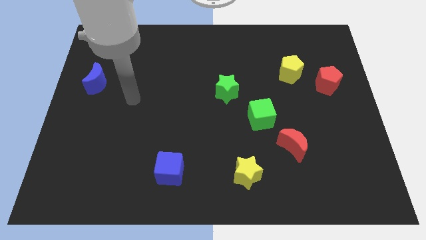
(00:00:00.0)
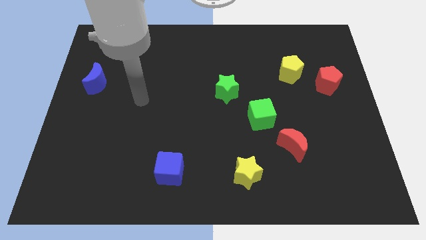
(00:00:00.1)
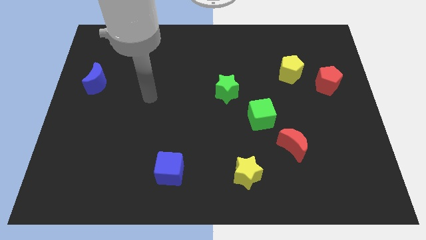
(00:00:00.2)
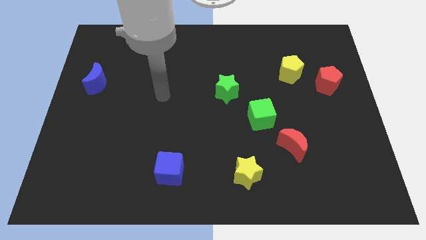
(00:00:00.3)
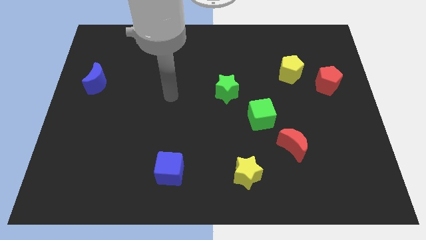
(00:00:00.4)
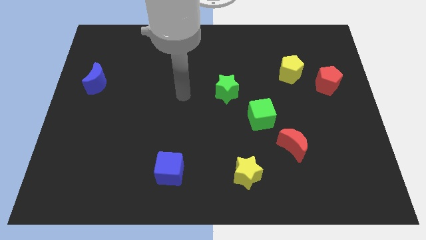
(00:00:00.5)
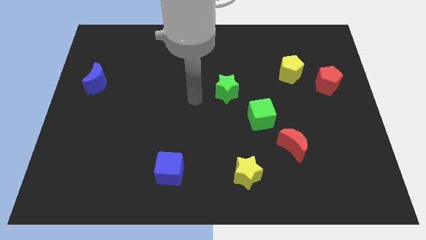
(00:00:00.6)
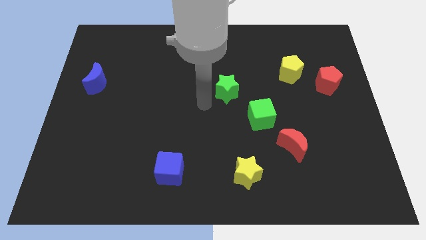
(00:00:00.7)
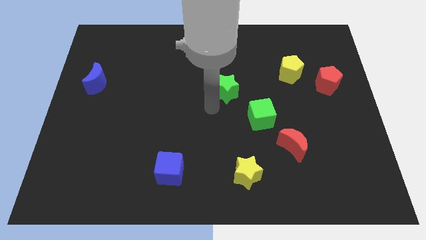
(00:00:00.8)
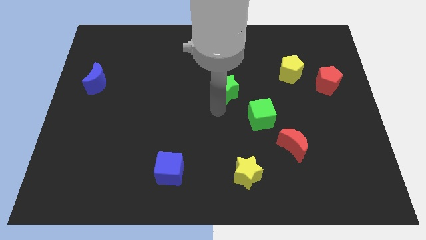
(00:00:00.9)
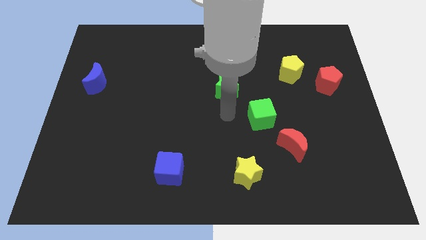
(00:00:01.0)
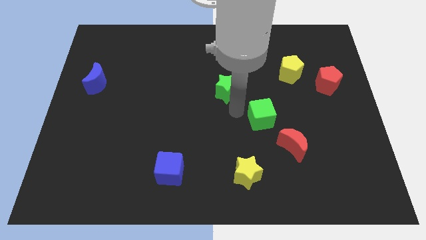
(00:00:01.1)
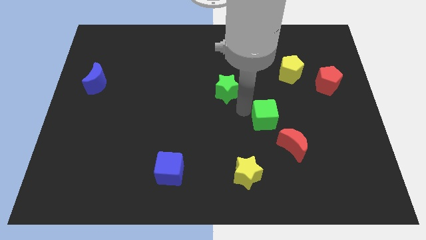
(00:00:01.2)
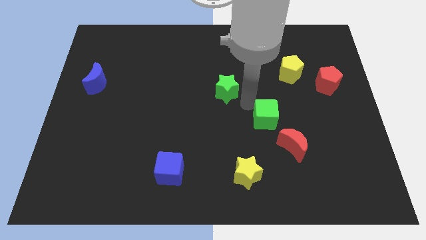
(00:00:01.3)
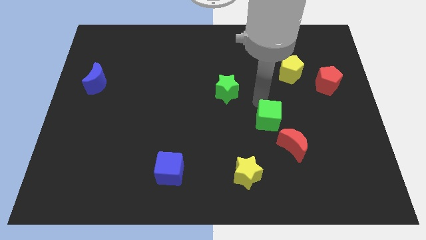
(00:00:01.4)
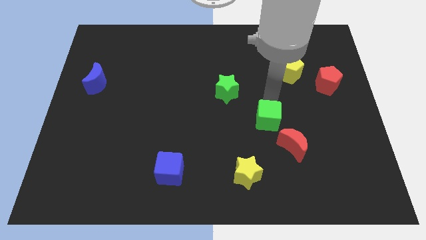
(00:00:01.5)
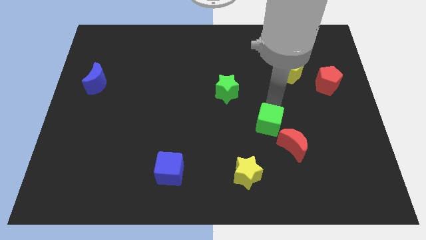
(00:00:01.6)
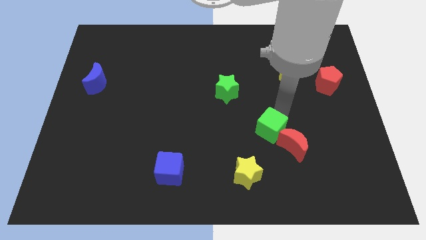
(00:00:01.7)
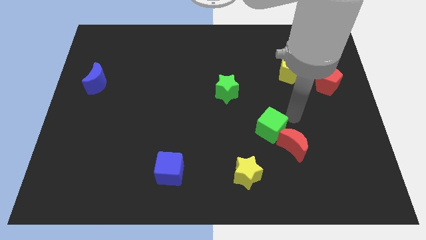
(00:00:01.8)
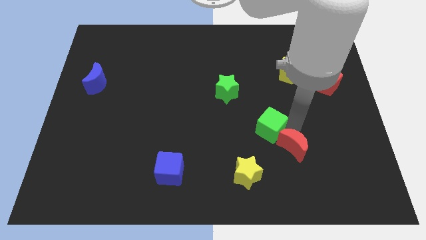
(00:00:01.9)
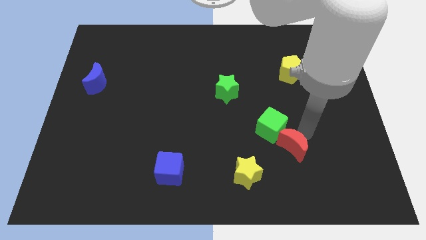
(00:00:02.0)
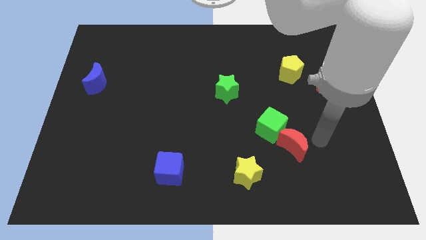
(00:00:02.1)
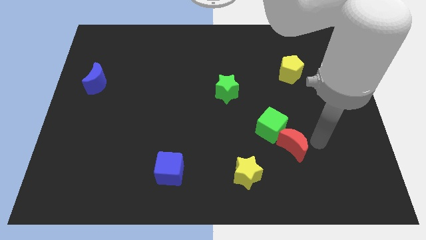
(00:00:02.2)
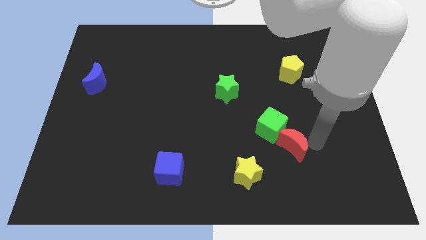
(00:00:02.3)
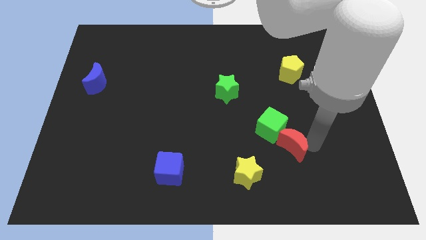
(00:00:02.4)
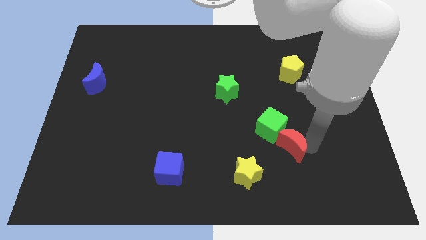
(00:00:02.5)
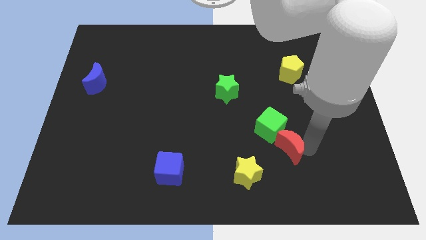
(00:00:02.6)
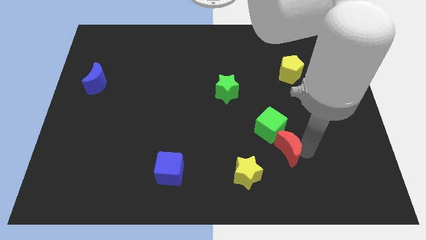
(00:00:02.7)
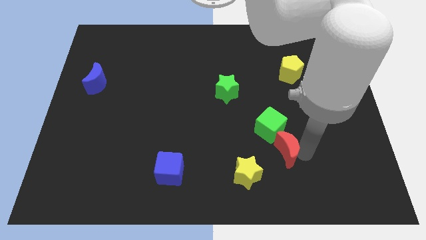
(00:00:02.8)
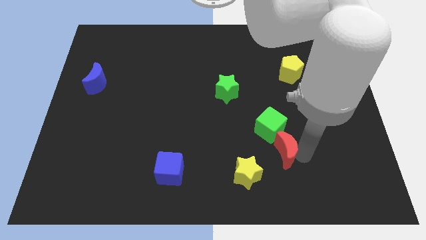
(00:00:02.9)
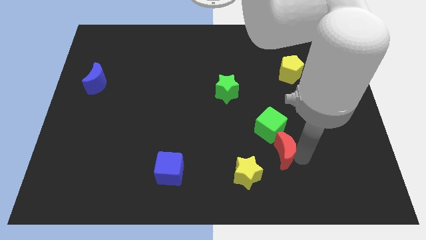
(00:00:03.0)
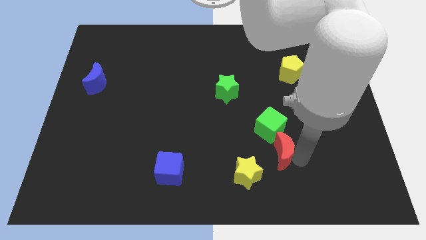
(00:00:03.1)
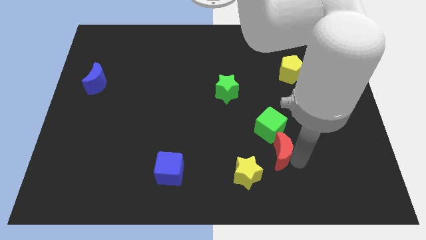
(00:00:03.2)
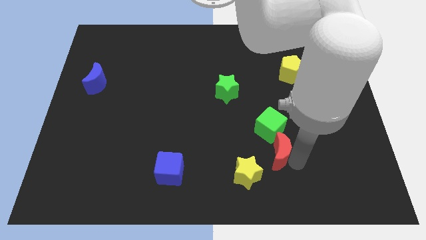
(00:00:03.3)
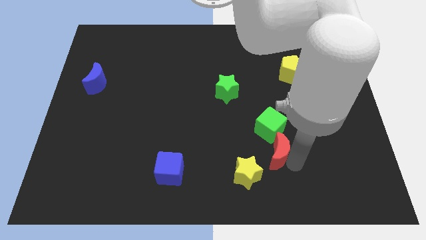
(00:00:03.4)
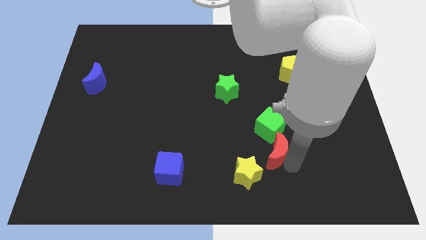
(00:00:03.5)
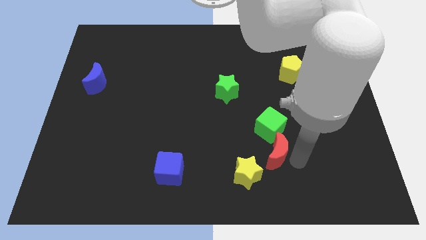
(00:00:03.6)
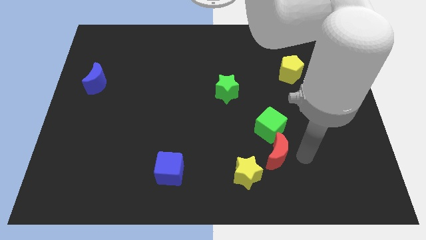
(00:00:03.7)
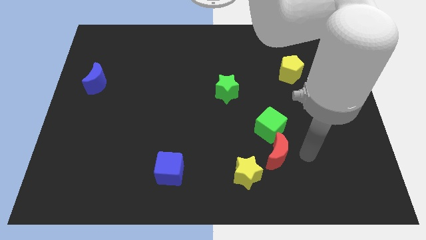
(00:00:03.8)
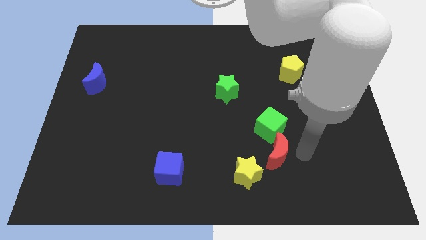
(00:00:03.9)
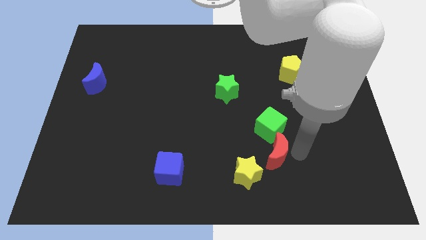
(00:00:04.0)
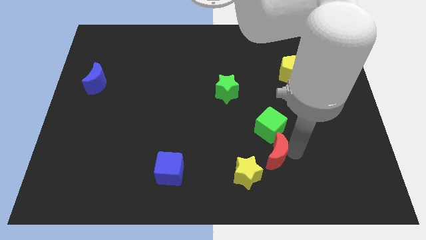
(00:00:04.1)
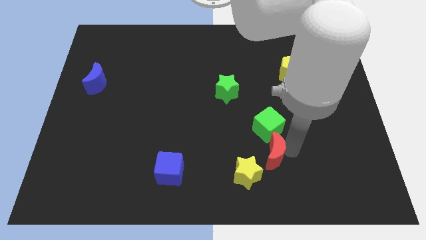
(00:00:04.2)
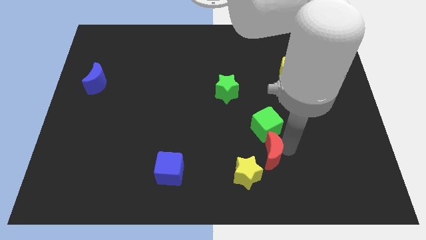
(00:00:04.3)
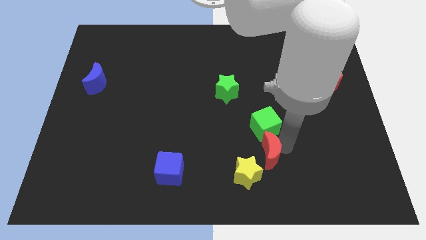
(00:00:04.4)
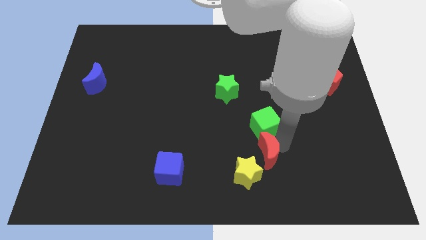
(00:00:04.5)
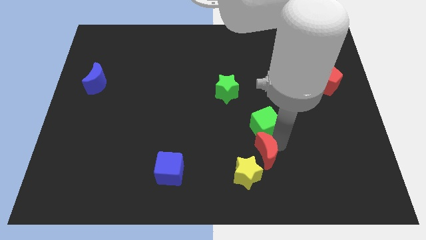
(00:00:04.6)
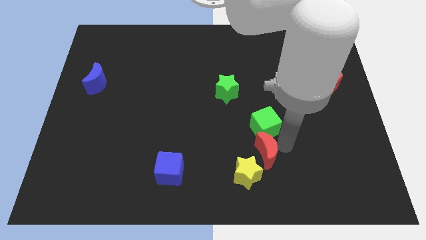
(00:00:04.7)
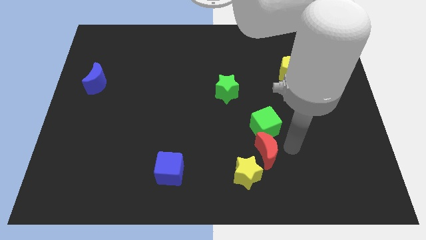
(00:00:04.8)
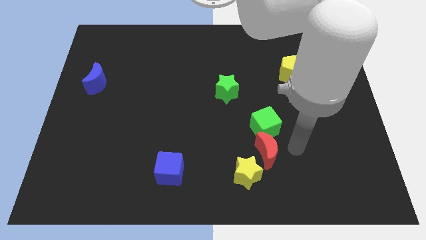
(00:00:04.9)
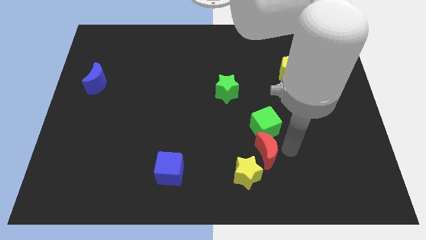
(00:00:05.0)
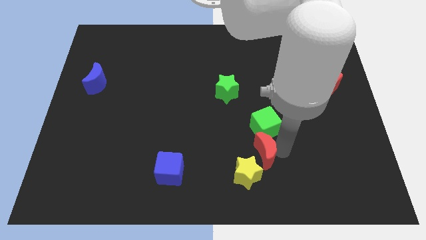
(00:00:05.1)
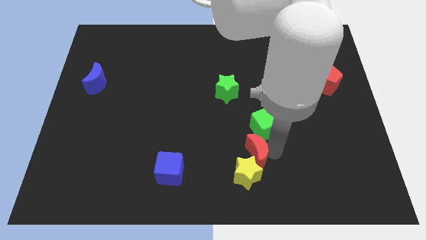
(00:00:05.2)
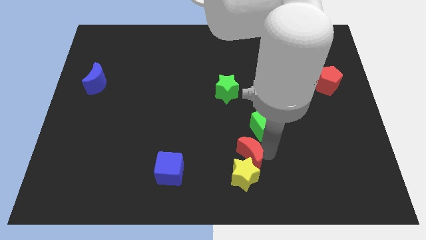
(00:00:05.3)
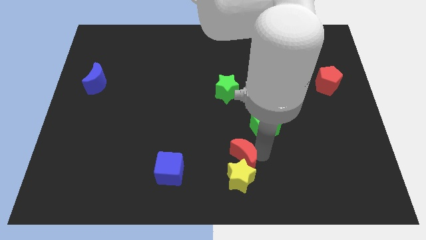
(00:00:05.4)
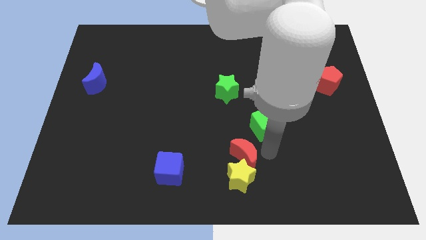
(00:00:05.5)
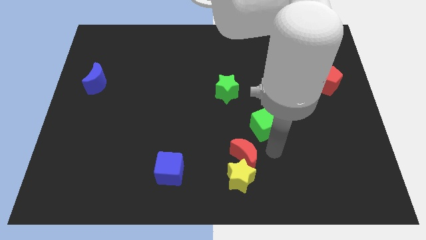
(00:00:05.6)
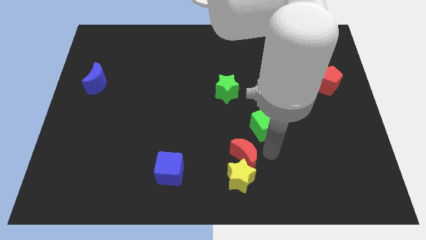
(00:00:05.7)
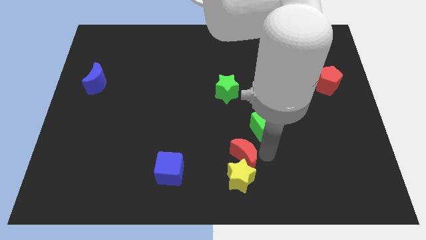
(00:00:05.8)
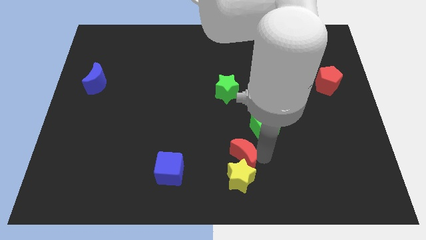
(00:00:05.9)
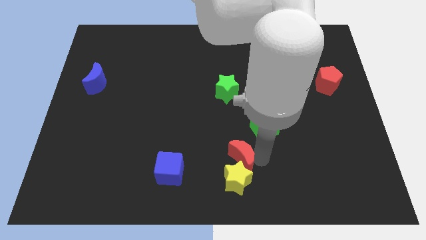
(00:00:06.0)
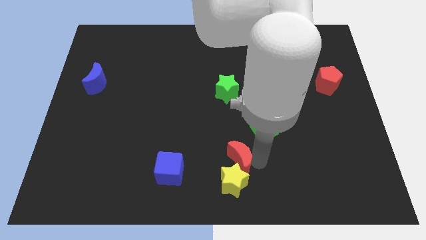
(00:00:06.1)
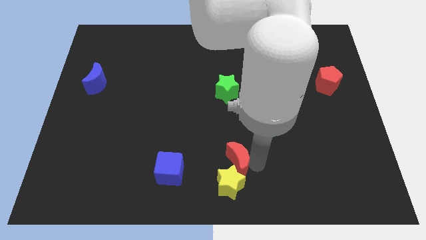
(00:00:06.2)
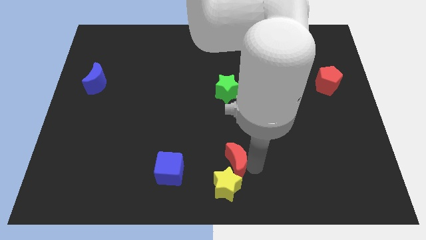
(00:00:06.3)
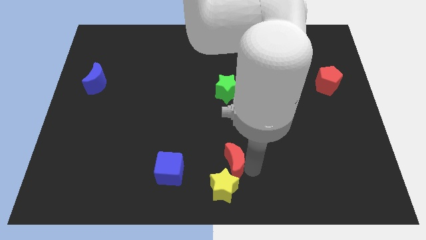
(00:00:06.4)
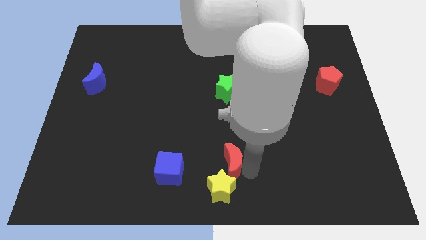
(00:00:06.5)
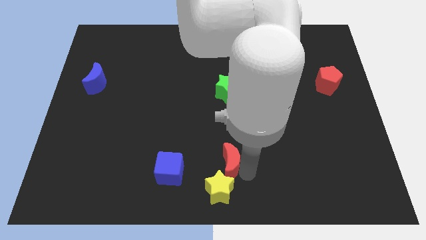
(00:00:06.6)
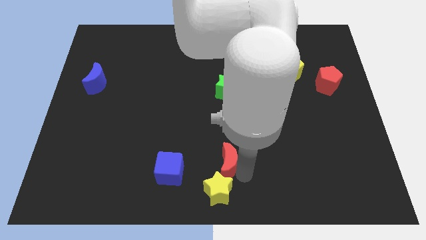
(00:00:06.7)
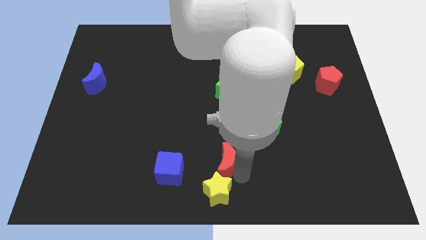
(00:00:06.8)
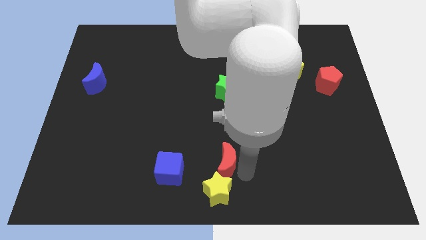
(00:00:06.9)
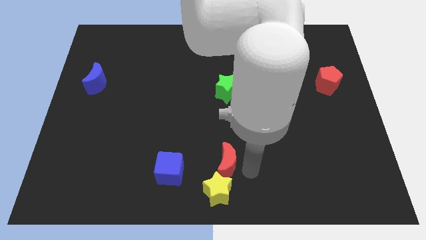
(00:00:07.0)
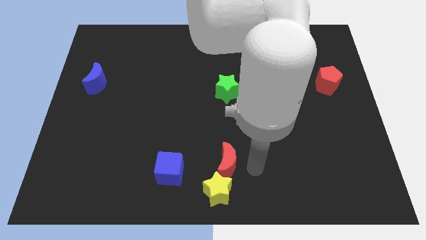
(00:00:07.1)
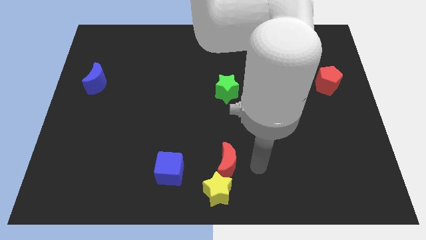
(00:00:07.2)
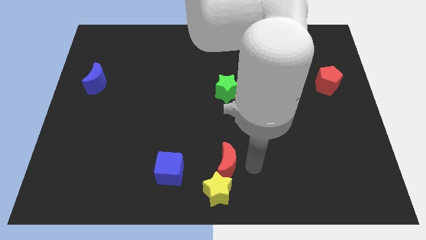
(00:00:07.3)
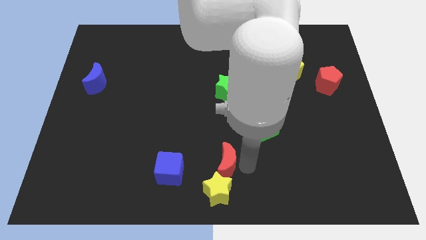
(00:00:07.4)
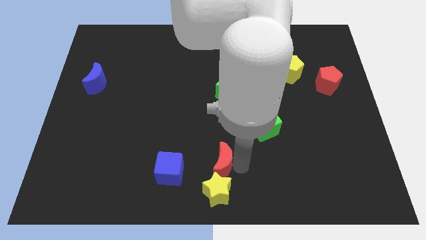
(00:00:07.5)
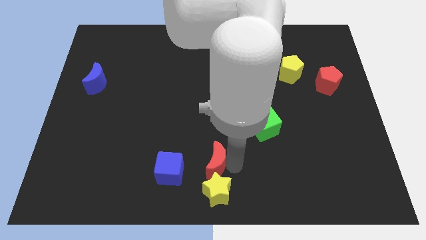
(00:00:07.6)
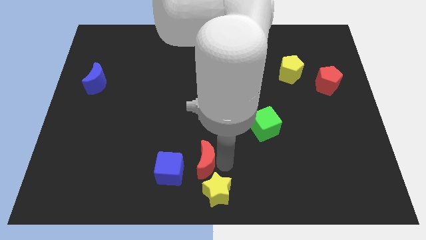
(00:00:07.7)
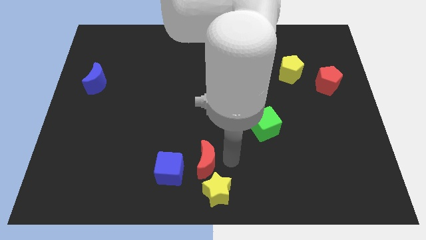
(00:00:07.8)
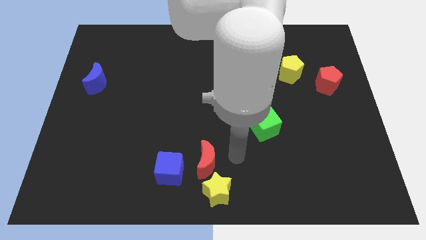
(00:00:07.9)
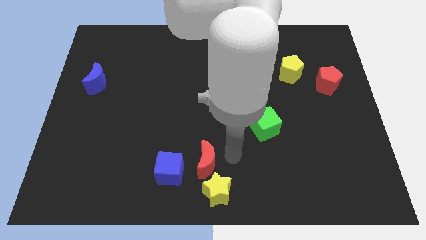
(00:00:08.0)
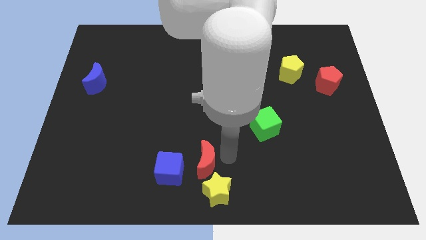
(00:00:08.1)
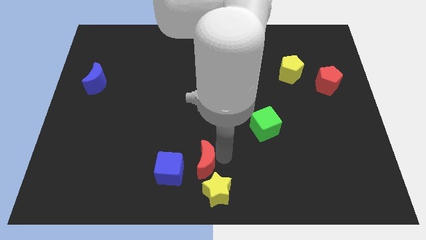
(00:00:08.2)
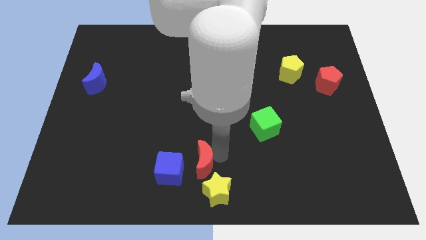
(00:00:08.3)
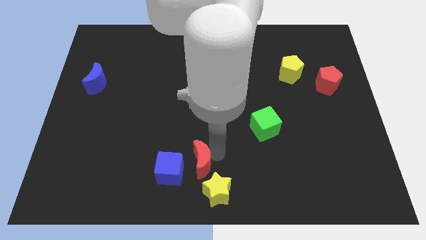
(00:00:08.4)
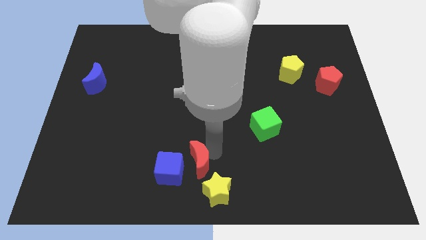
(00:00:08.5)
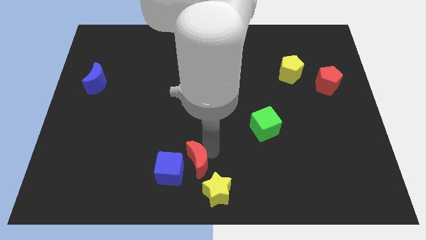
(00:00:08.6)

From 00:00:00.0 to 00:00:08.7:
slide the red moon close to the blue cube
